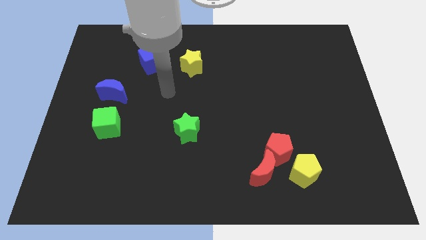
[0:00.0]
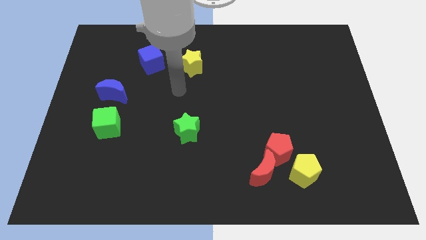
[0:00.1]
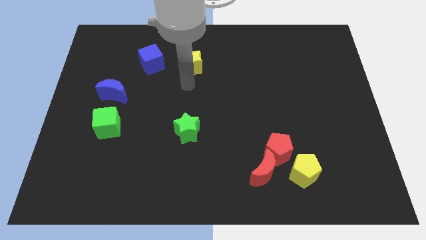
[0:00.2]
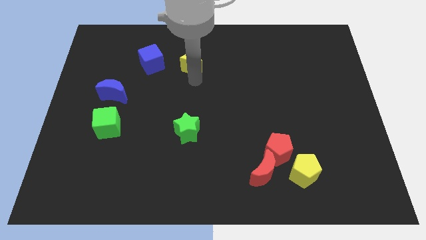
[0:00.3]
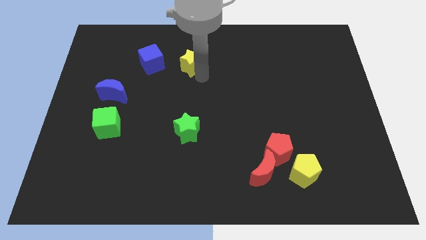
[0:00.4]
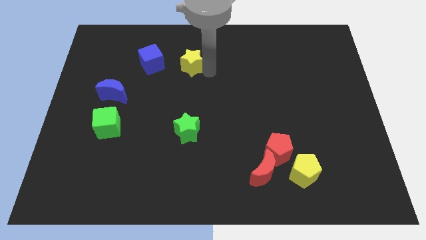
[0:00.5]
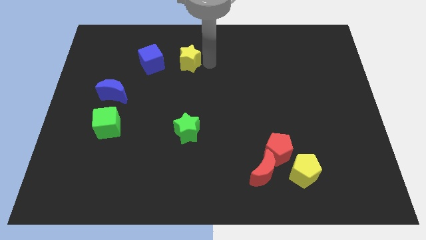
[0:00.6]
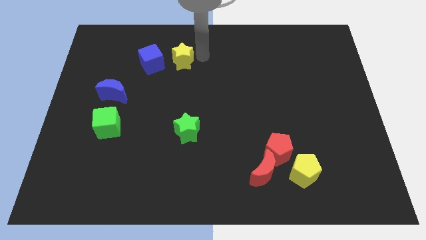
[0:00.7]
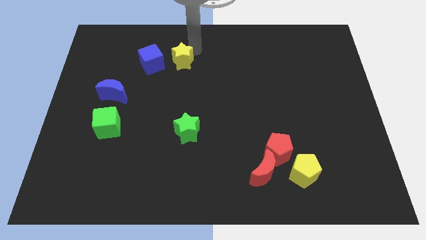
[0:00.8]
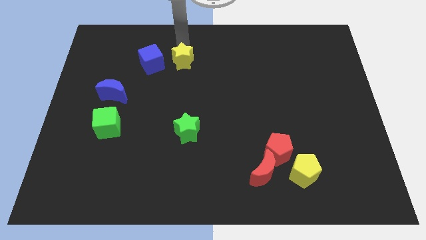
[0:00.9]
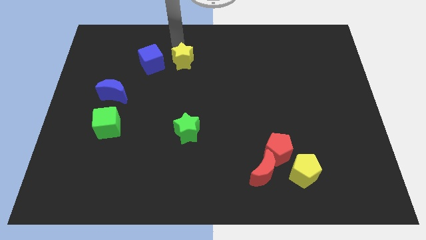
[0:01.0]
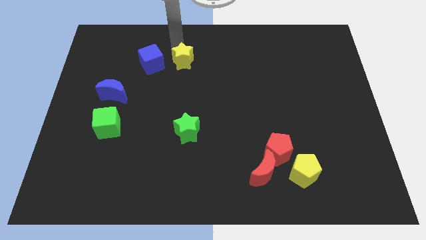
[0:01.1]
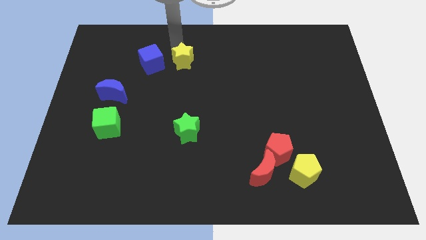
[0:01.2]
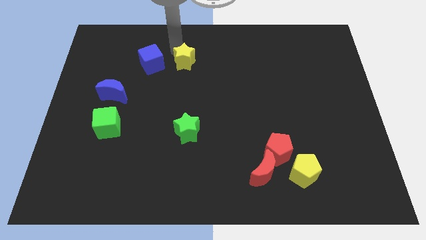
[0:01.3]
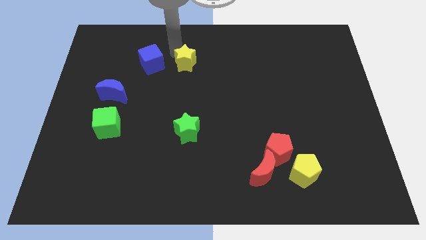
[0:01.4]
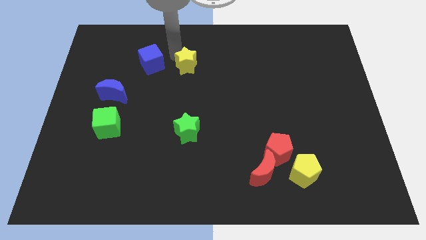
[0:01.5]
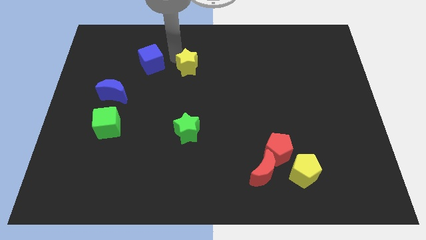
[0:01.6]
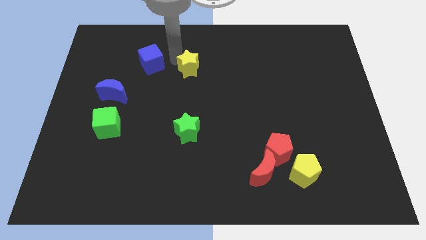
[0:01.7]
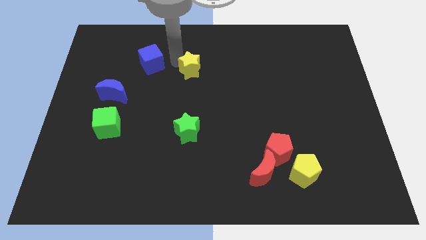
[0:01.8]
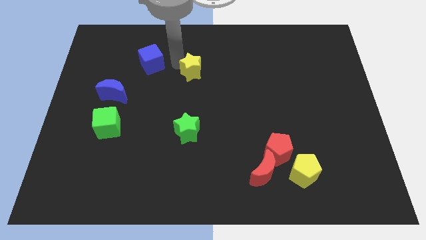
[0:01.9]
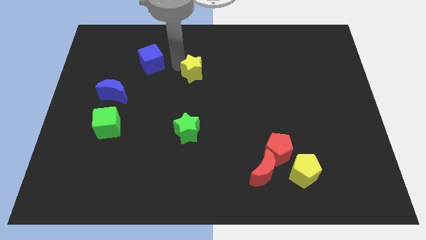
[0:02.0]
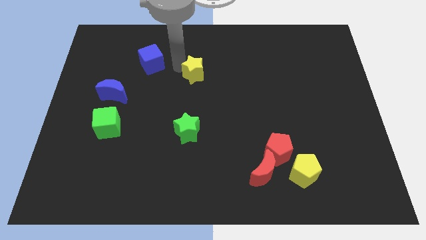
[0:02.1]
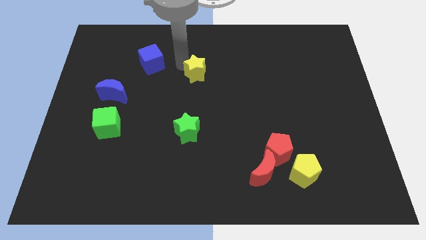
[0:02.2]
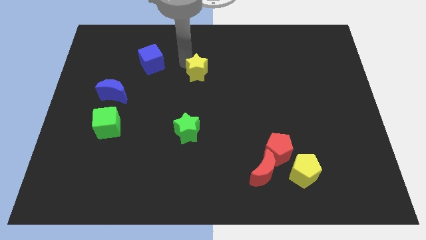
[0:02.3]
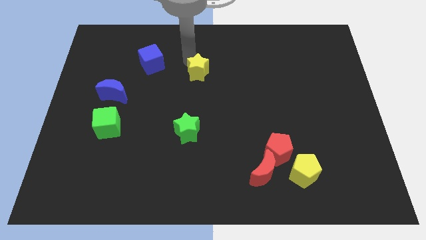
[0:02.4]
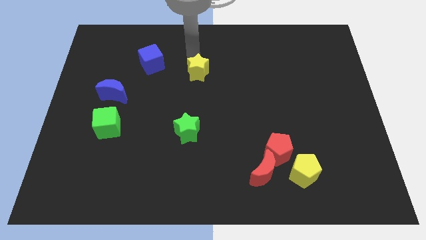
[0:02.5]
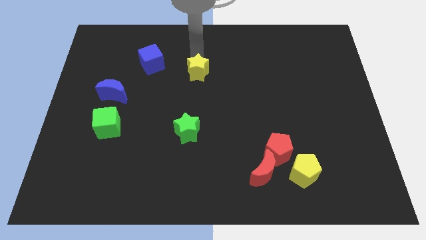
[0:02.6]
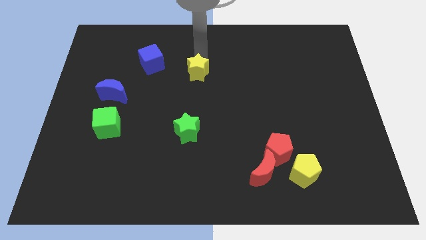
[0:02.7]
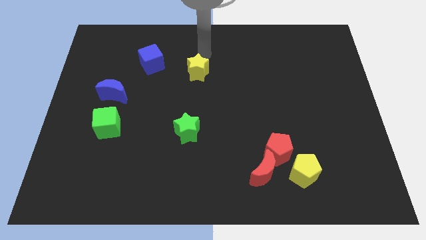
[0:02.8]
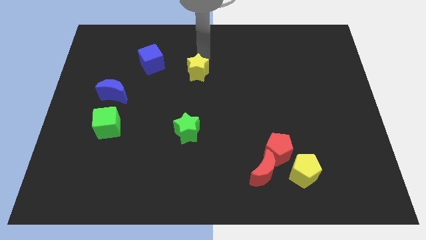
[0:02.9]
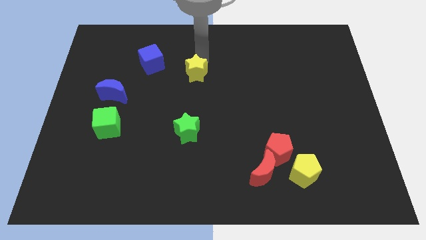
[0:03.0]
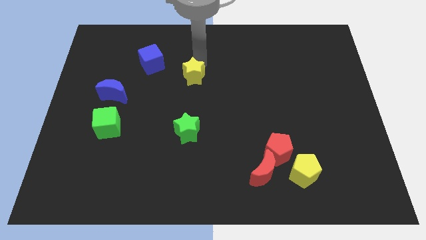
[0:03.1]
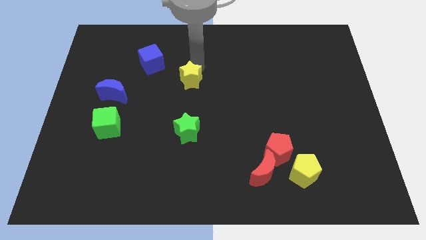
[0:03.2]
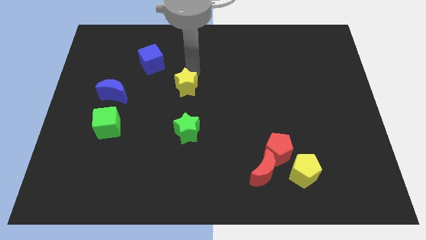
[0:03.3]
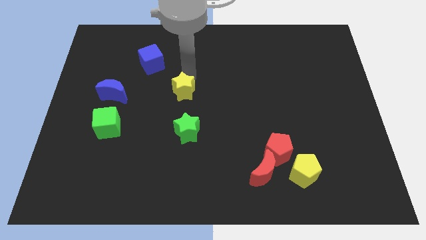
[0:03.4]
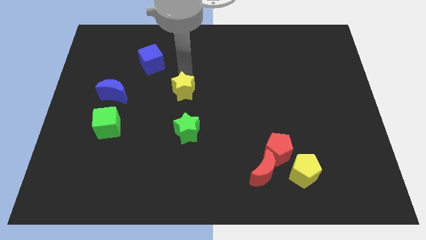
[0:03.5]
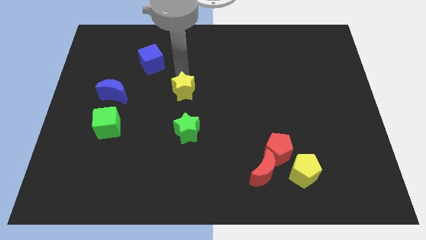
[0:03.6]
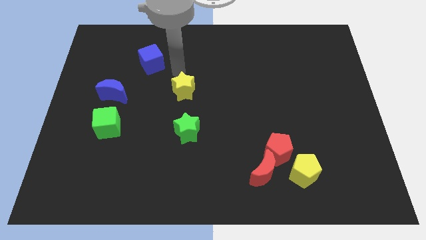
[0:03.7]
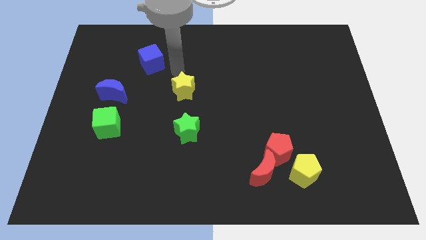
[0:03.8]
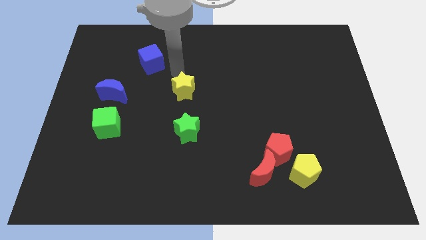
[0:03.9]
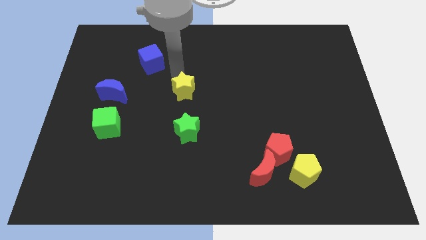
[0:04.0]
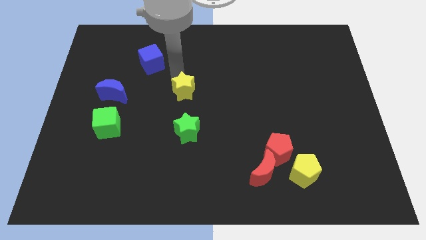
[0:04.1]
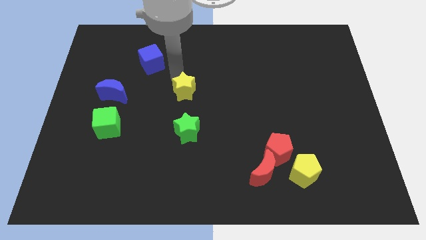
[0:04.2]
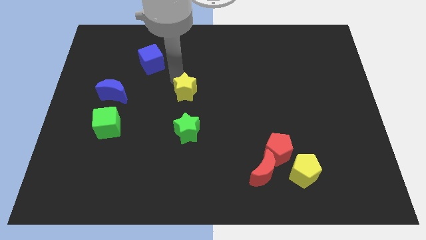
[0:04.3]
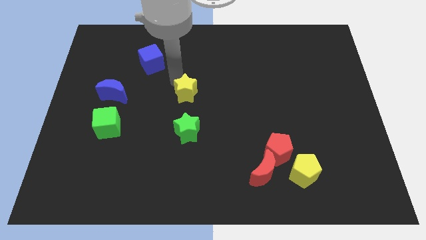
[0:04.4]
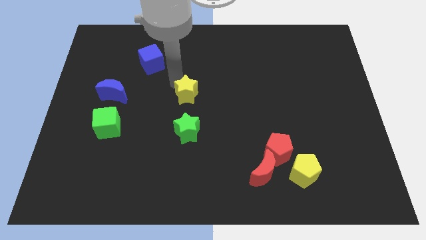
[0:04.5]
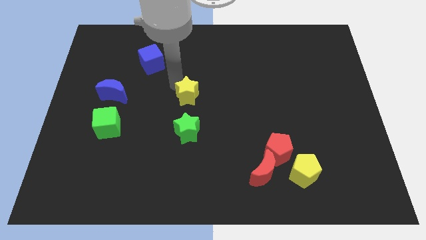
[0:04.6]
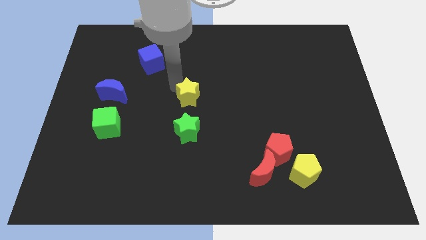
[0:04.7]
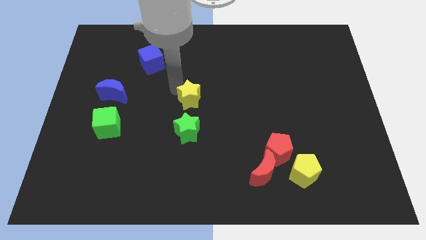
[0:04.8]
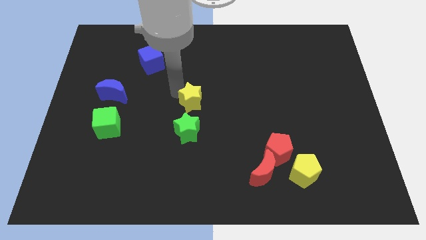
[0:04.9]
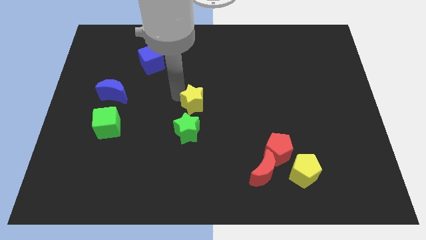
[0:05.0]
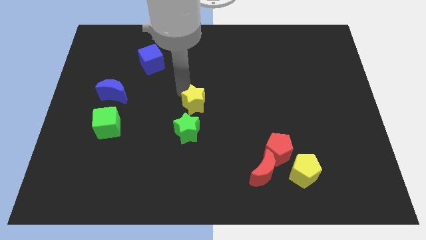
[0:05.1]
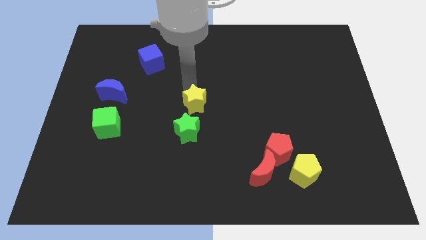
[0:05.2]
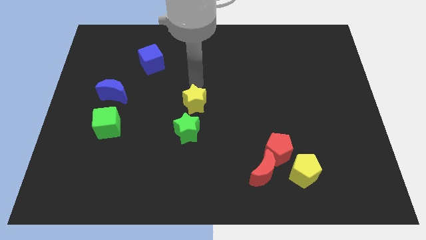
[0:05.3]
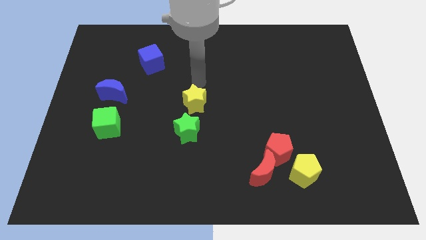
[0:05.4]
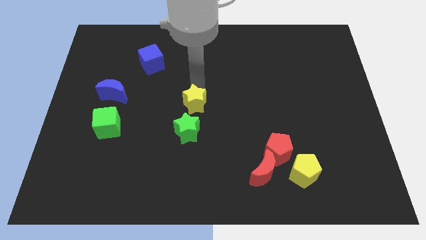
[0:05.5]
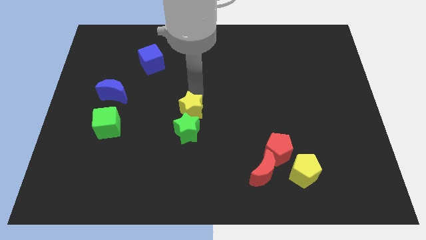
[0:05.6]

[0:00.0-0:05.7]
put the yellow star towards the green star

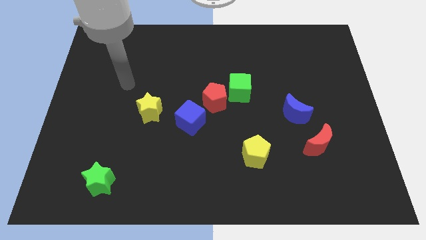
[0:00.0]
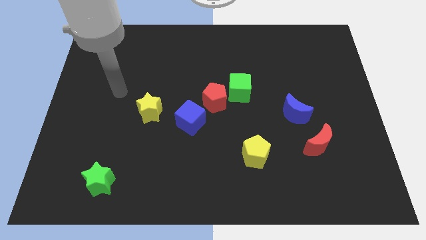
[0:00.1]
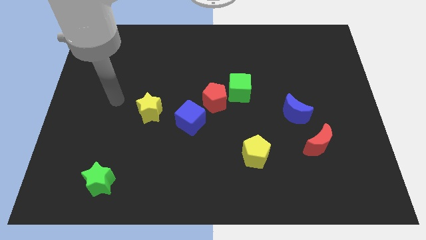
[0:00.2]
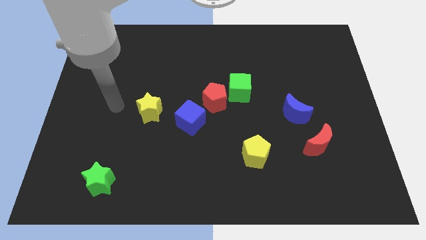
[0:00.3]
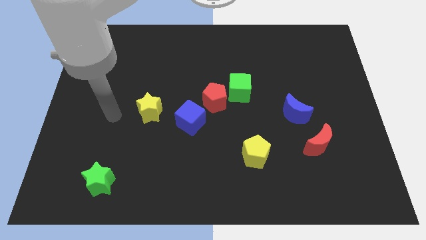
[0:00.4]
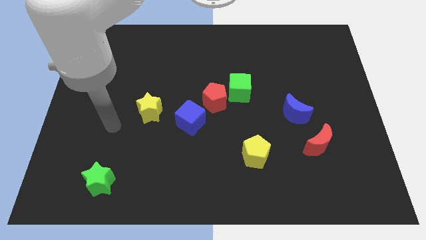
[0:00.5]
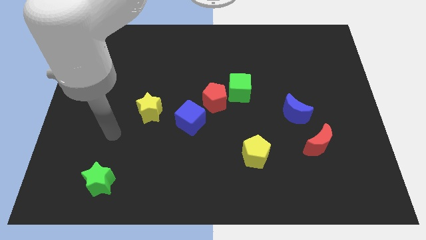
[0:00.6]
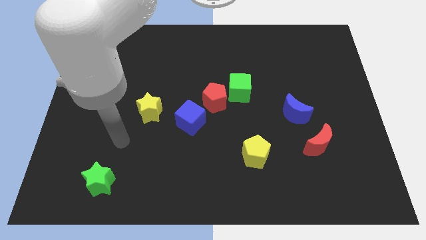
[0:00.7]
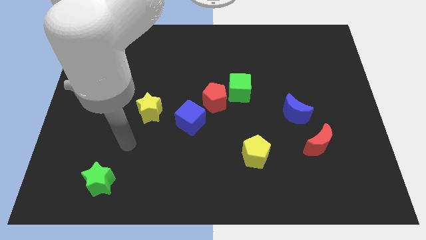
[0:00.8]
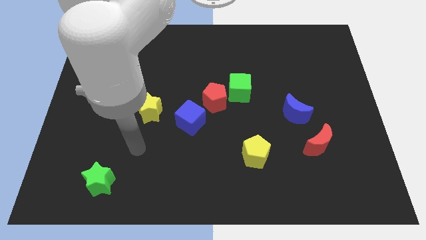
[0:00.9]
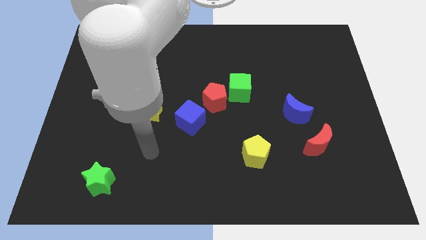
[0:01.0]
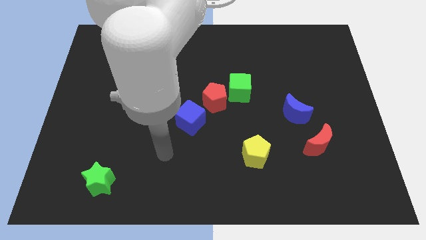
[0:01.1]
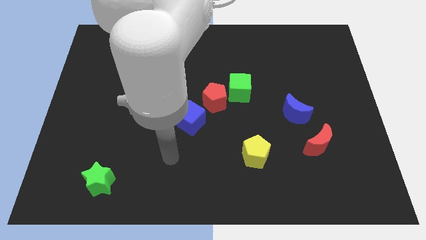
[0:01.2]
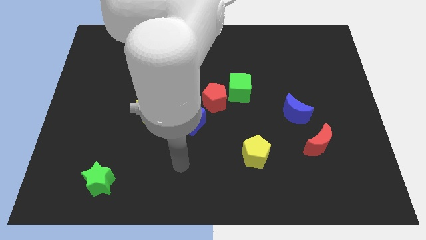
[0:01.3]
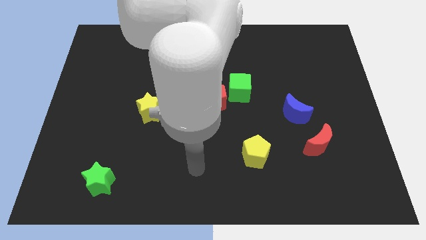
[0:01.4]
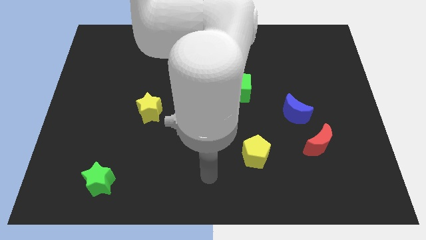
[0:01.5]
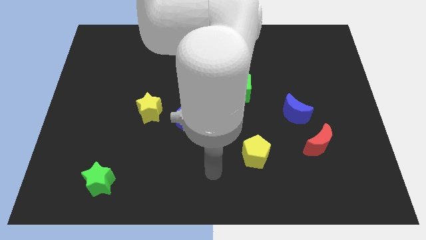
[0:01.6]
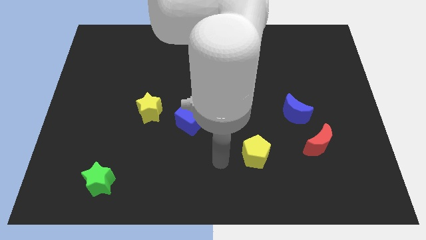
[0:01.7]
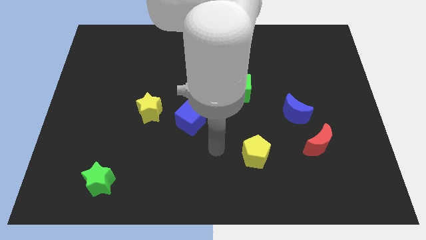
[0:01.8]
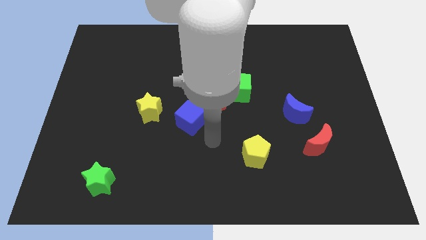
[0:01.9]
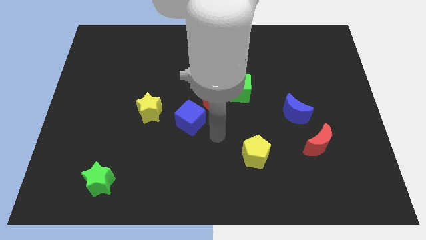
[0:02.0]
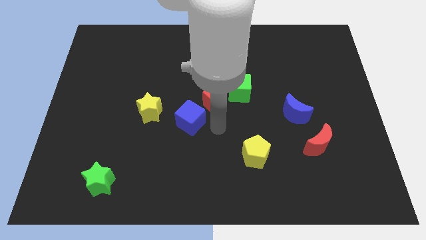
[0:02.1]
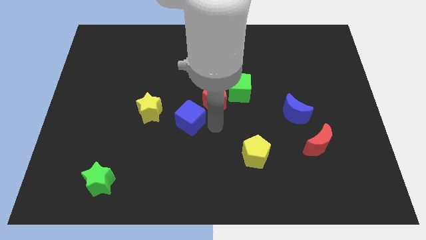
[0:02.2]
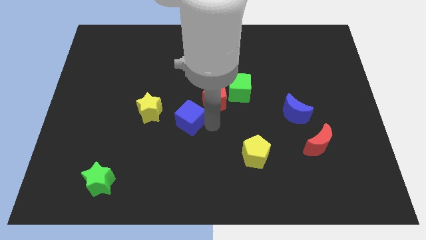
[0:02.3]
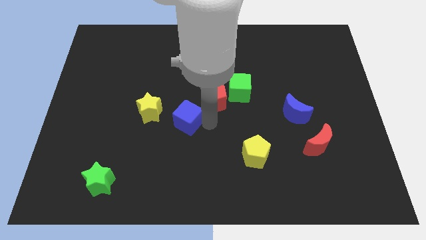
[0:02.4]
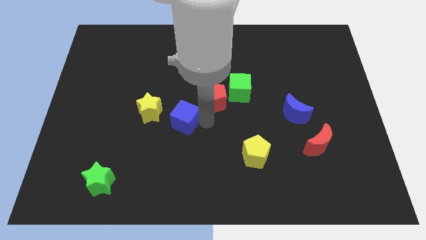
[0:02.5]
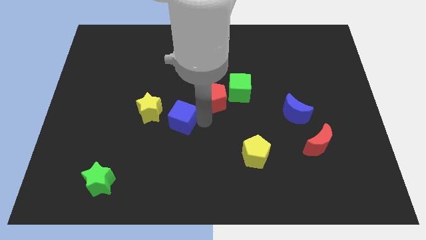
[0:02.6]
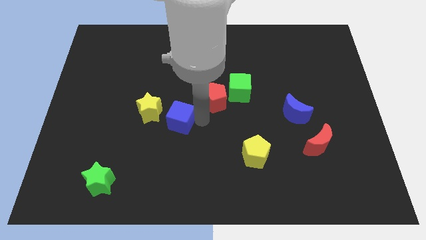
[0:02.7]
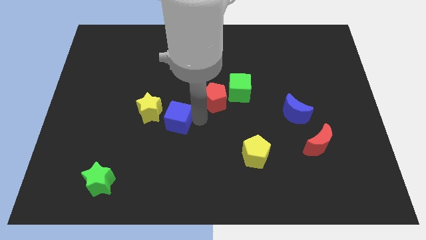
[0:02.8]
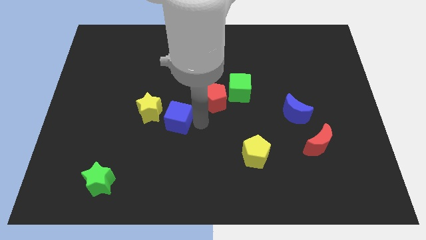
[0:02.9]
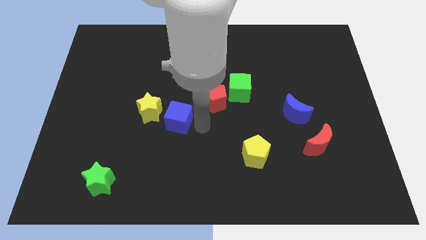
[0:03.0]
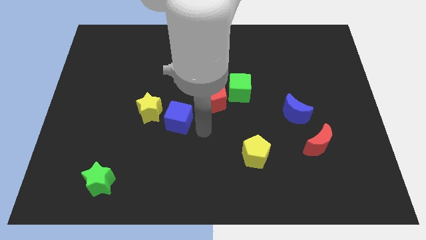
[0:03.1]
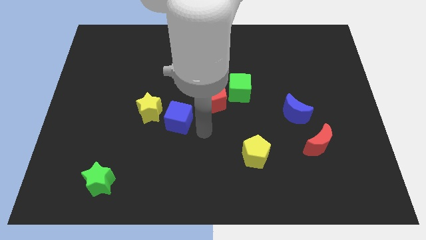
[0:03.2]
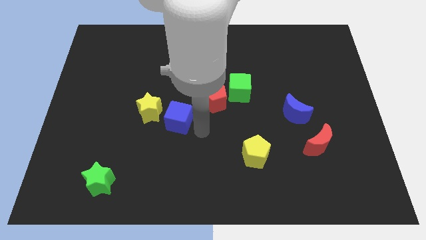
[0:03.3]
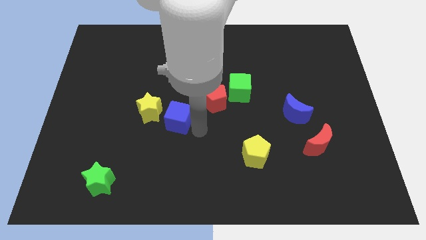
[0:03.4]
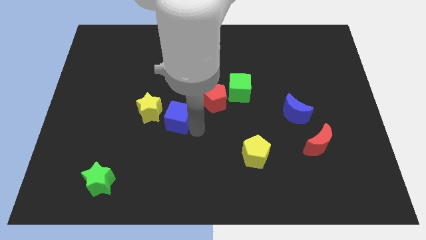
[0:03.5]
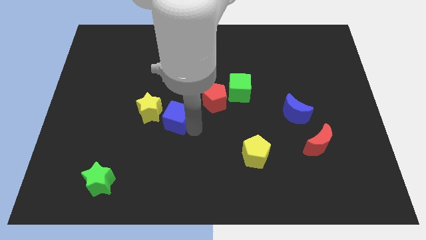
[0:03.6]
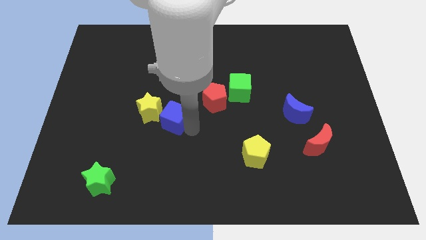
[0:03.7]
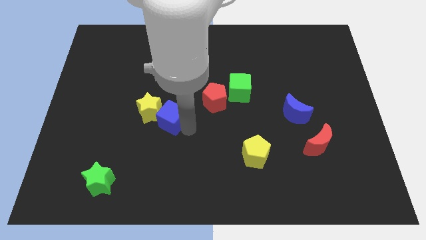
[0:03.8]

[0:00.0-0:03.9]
put the blue cube close to the yellow star
